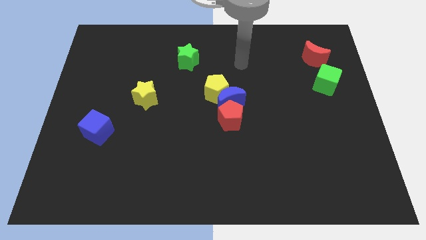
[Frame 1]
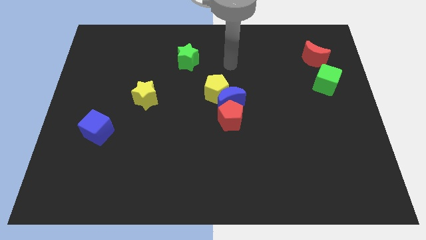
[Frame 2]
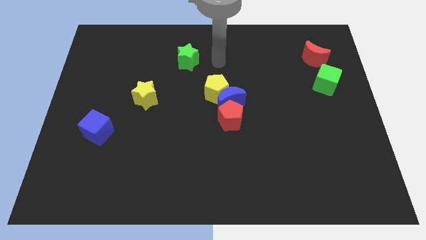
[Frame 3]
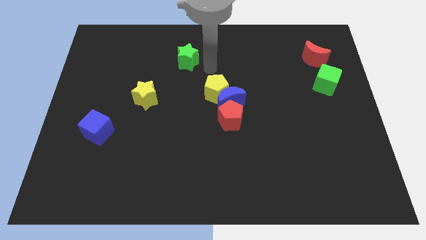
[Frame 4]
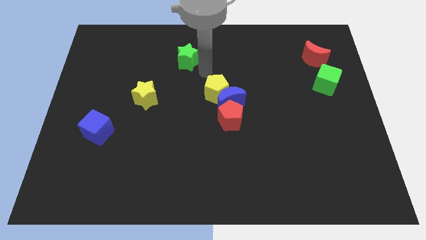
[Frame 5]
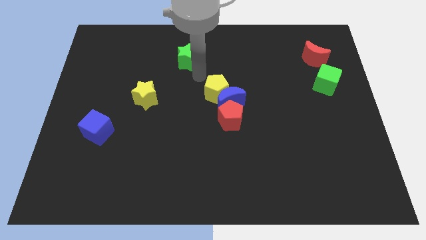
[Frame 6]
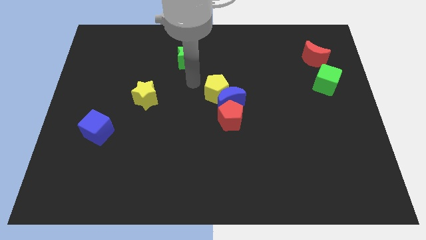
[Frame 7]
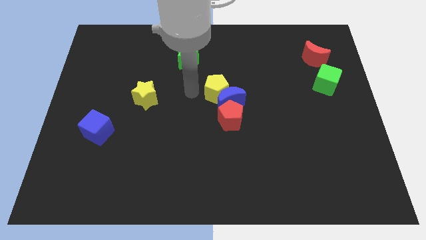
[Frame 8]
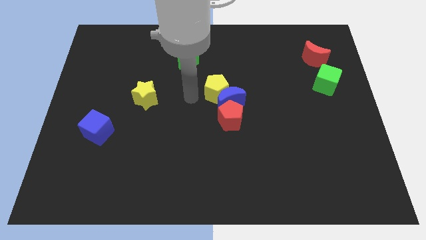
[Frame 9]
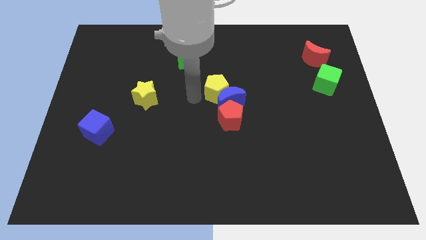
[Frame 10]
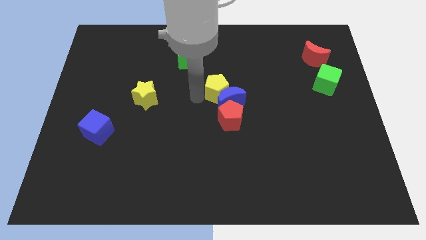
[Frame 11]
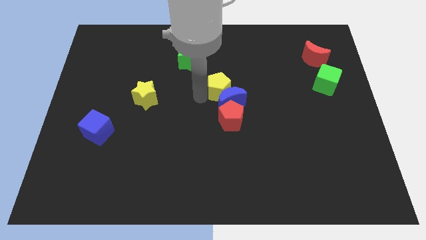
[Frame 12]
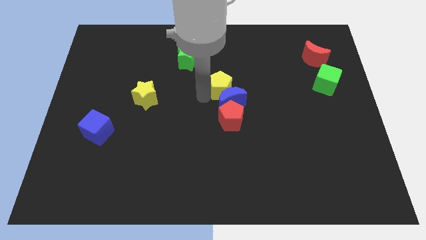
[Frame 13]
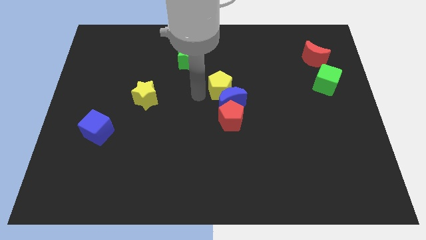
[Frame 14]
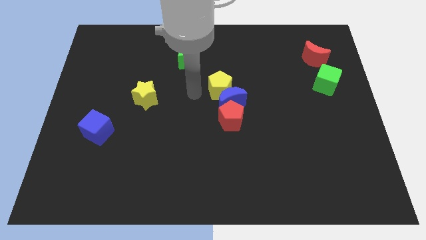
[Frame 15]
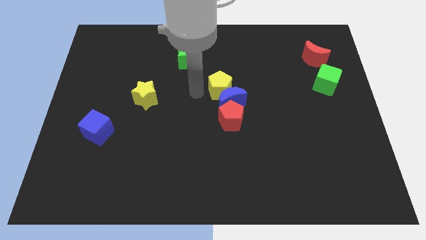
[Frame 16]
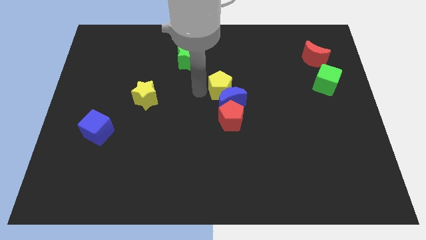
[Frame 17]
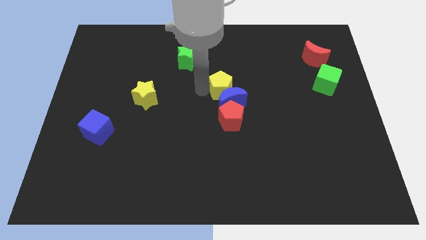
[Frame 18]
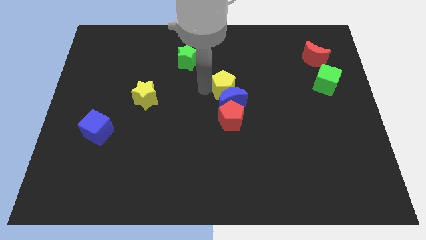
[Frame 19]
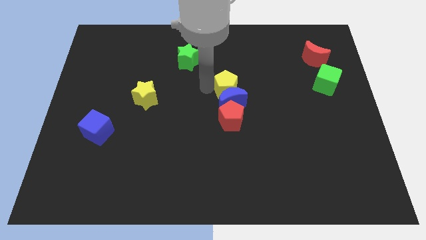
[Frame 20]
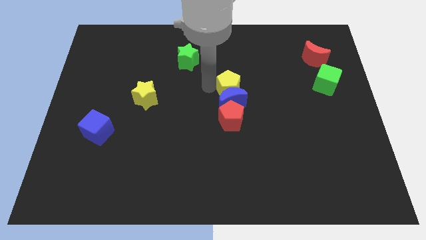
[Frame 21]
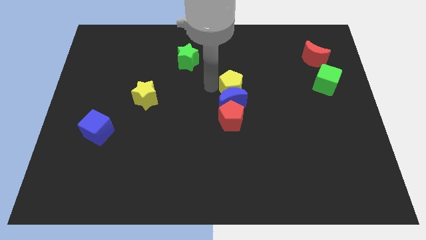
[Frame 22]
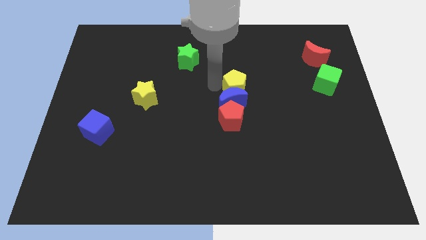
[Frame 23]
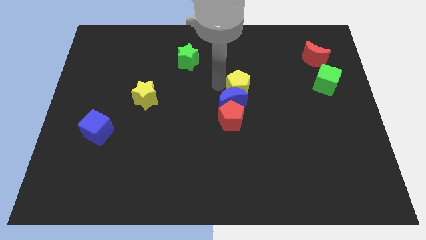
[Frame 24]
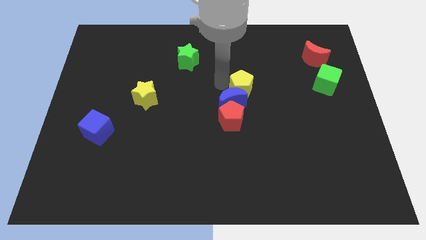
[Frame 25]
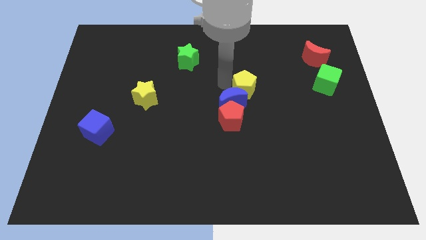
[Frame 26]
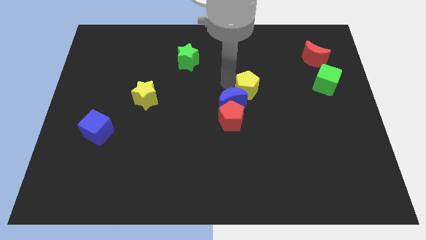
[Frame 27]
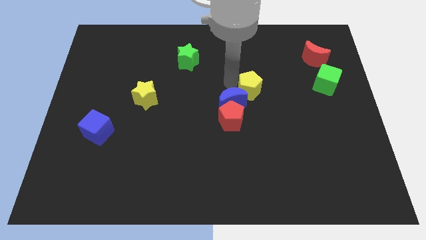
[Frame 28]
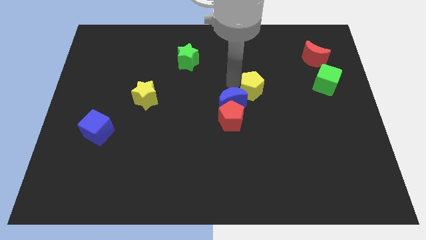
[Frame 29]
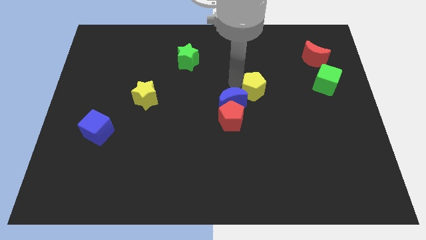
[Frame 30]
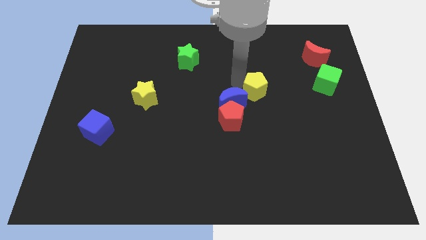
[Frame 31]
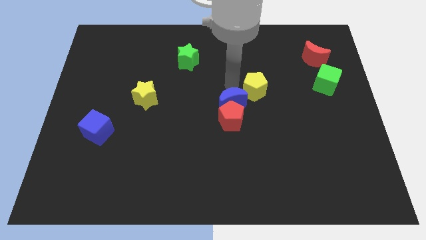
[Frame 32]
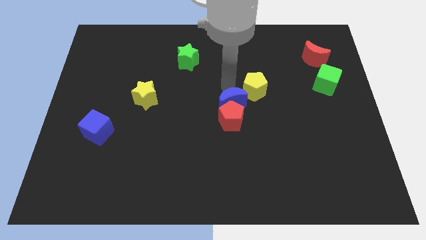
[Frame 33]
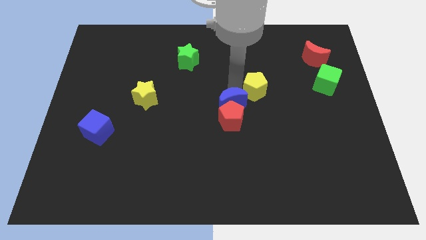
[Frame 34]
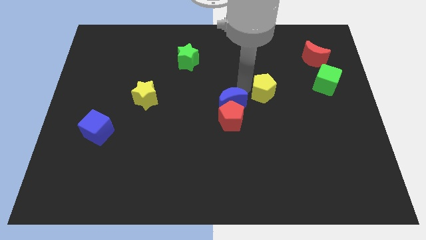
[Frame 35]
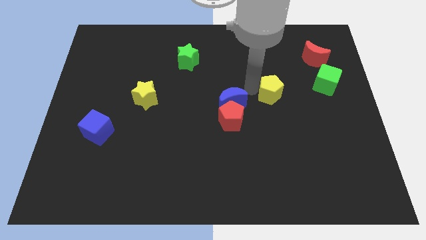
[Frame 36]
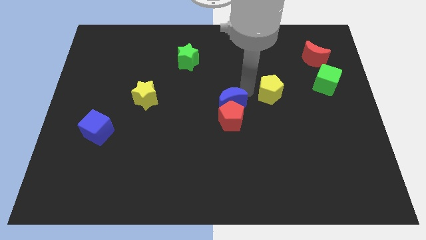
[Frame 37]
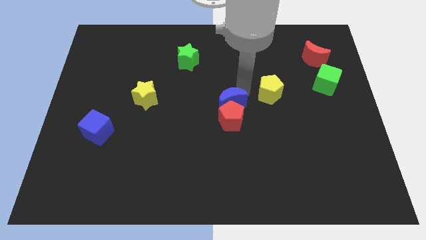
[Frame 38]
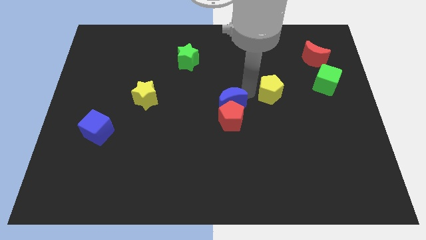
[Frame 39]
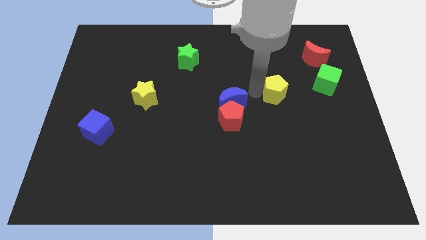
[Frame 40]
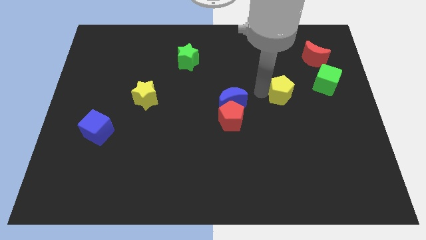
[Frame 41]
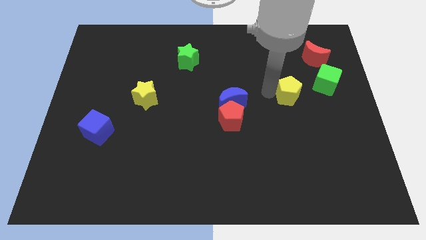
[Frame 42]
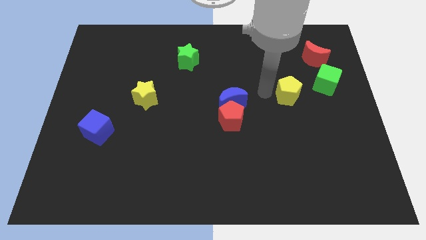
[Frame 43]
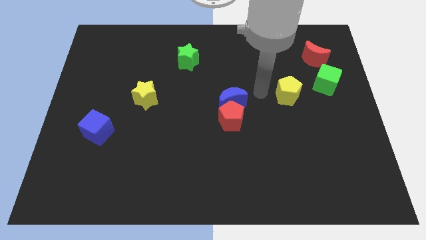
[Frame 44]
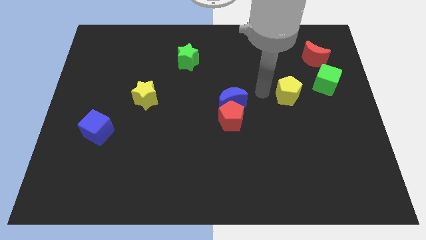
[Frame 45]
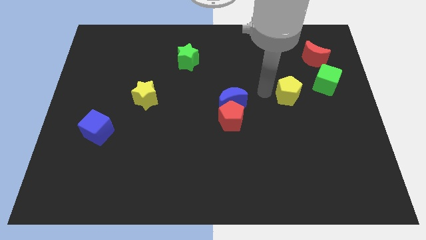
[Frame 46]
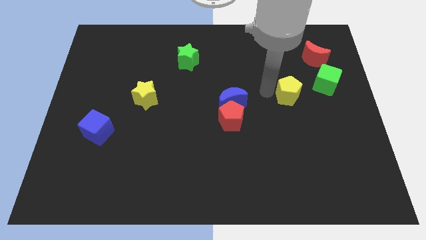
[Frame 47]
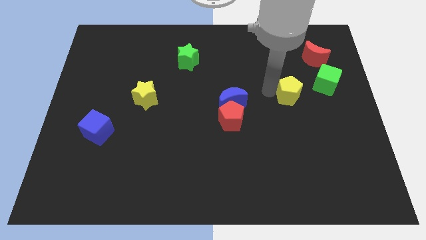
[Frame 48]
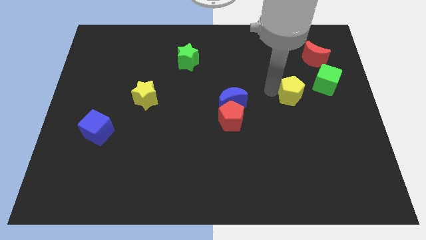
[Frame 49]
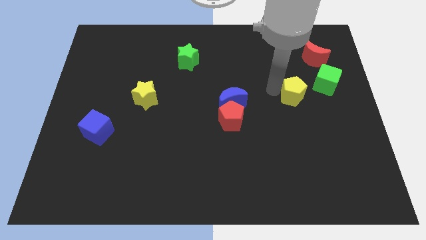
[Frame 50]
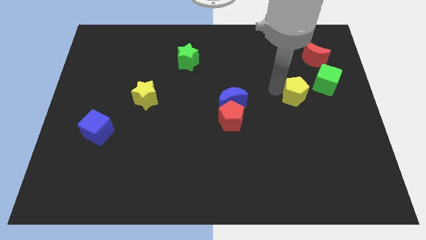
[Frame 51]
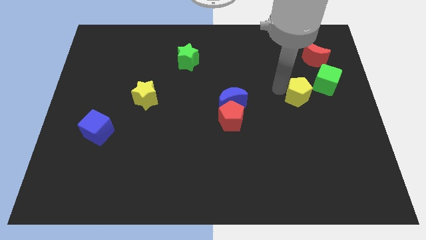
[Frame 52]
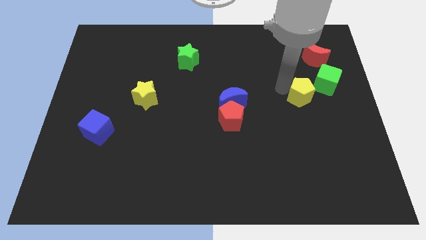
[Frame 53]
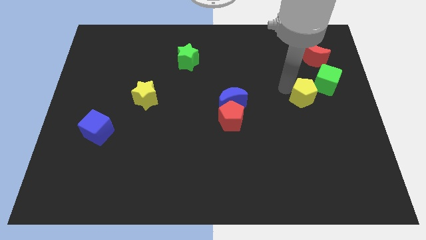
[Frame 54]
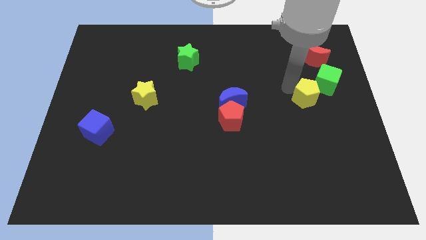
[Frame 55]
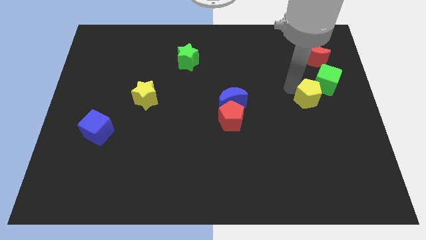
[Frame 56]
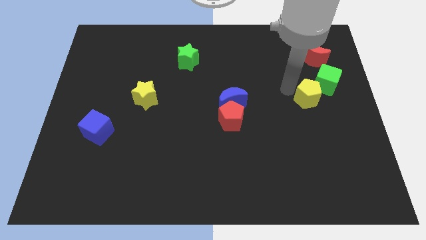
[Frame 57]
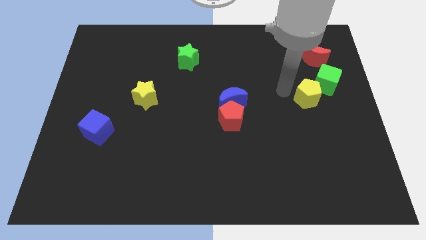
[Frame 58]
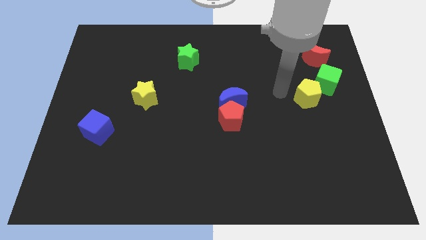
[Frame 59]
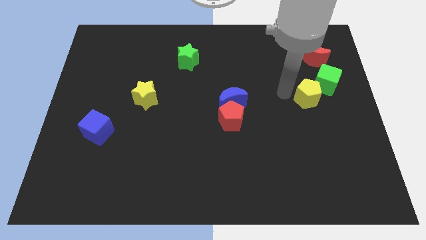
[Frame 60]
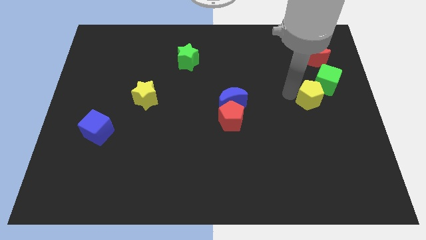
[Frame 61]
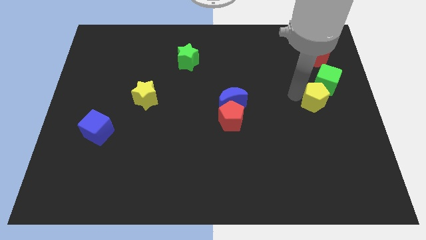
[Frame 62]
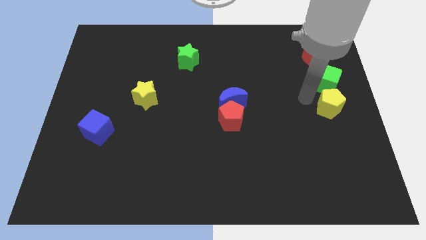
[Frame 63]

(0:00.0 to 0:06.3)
move the yellow pentagon to the right side

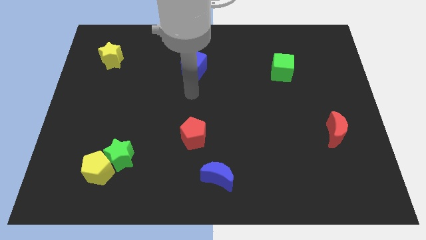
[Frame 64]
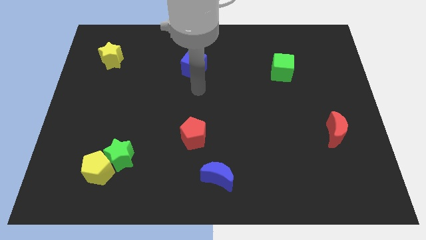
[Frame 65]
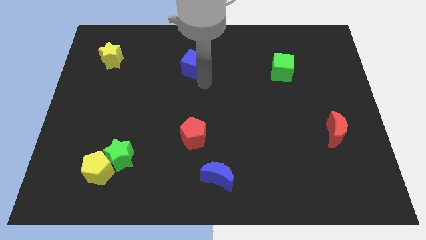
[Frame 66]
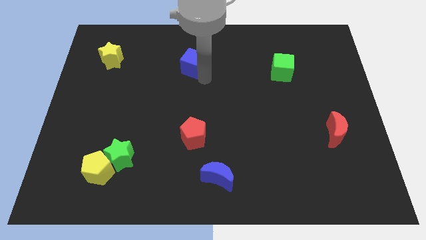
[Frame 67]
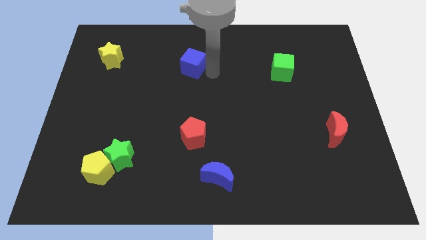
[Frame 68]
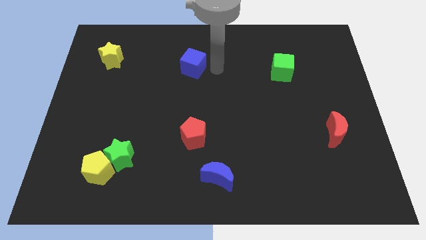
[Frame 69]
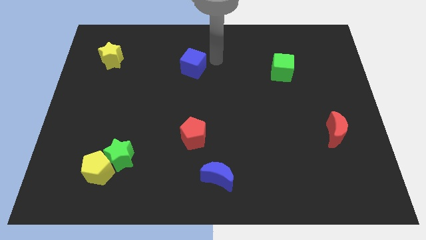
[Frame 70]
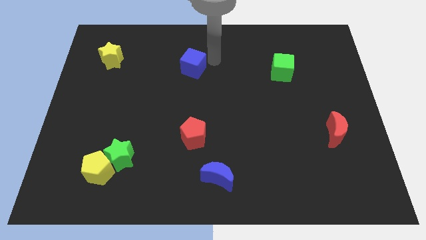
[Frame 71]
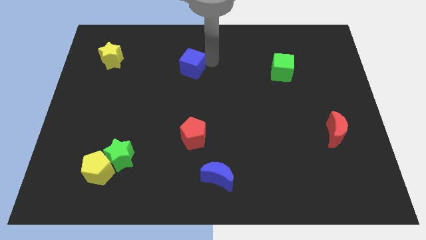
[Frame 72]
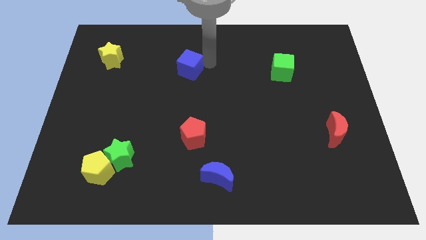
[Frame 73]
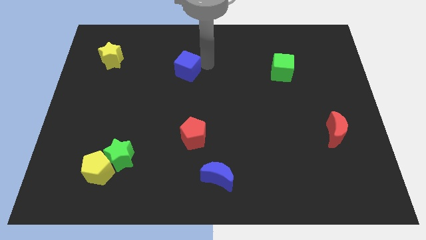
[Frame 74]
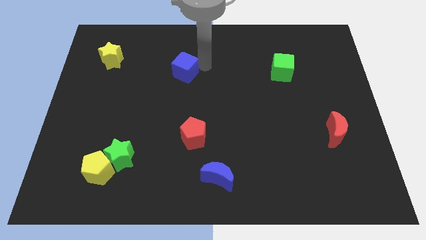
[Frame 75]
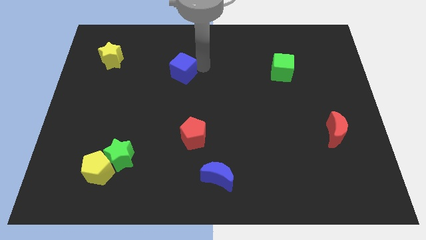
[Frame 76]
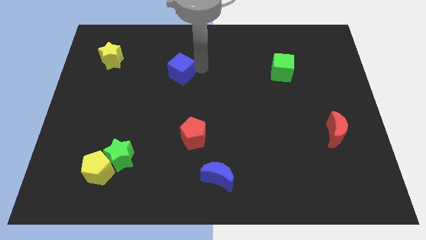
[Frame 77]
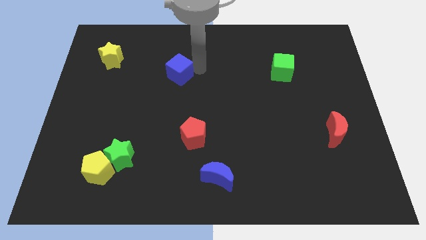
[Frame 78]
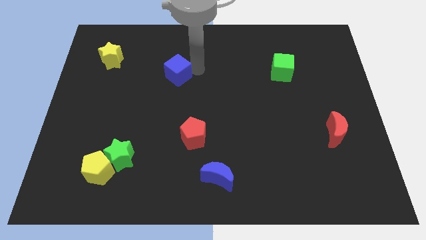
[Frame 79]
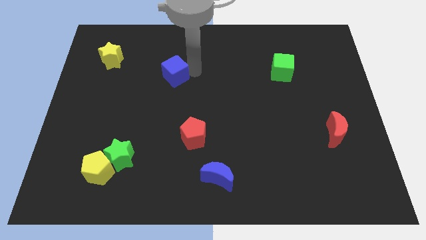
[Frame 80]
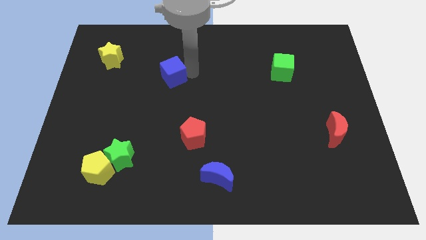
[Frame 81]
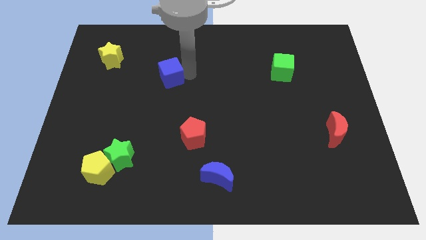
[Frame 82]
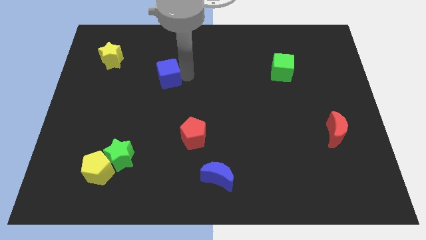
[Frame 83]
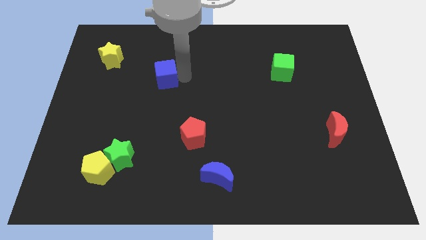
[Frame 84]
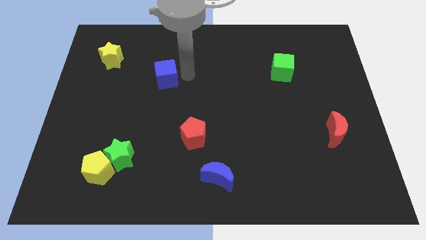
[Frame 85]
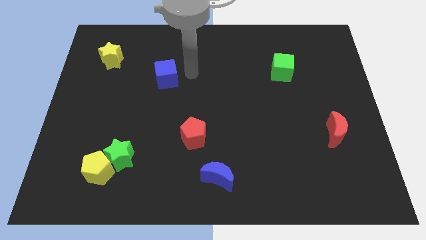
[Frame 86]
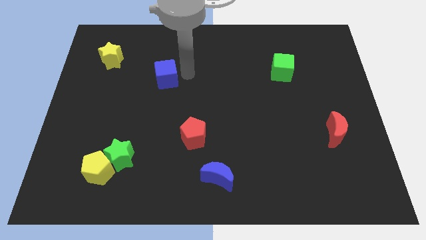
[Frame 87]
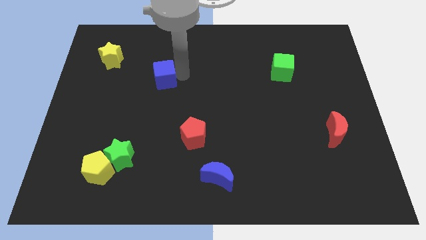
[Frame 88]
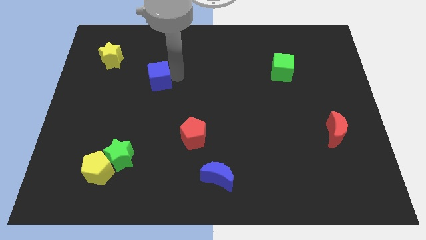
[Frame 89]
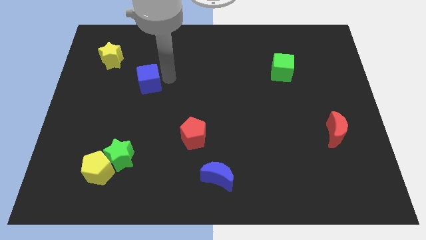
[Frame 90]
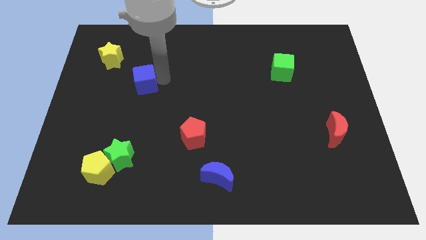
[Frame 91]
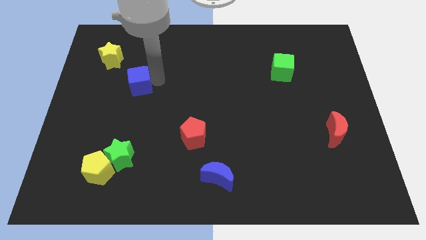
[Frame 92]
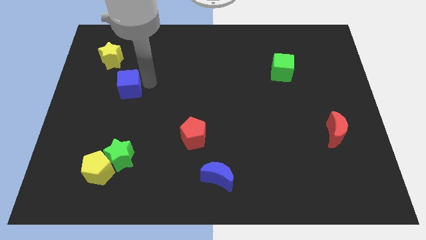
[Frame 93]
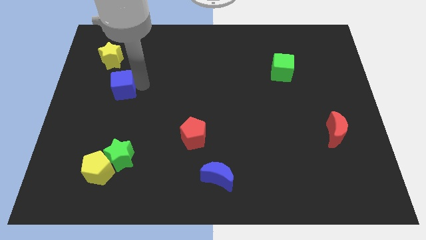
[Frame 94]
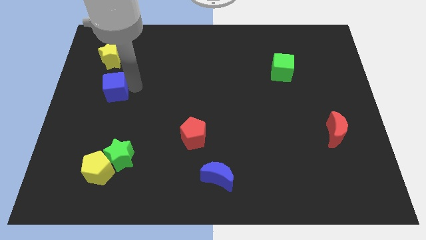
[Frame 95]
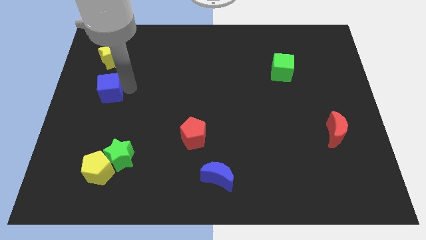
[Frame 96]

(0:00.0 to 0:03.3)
put the blue cube to the left side of the board
